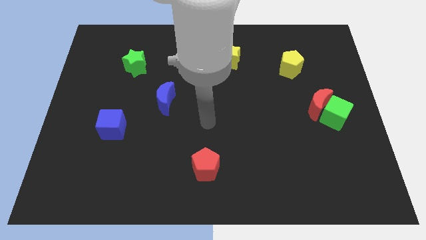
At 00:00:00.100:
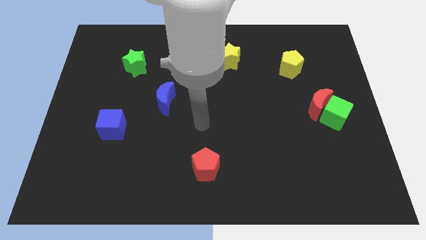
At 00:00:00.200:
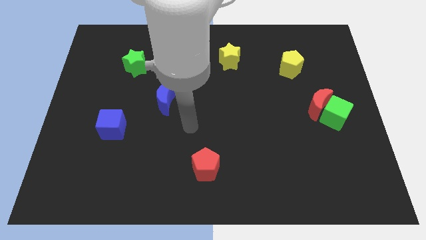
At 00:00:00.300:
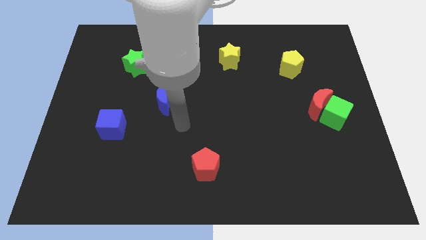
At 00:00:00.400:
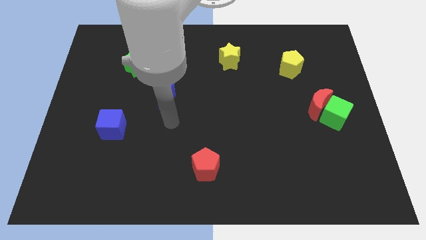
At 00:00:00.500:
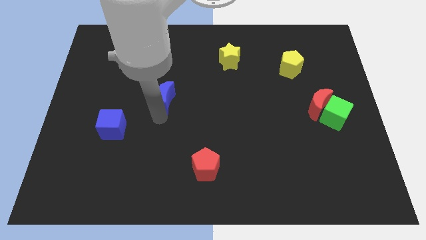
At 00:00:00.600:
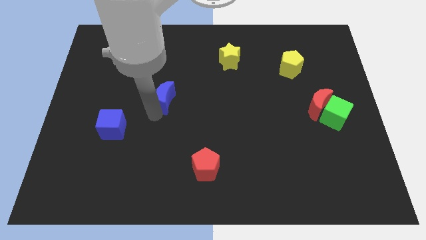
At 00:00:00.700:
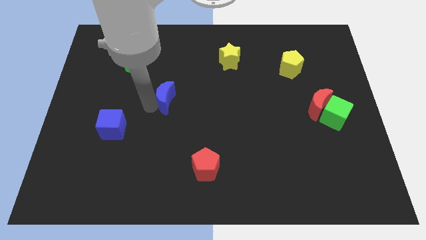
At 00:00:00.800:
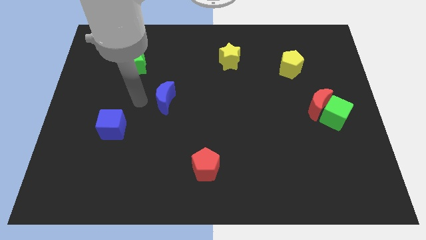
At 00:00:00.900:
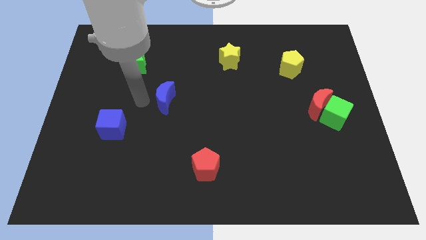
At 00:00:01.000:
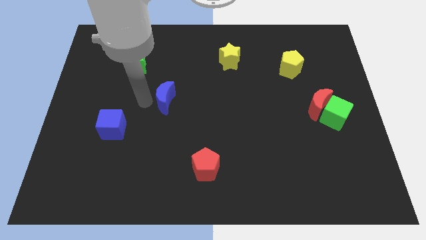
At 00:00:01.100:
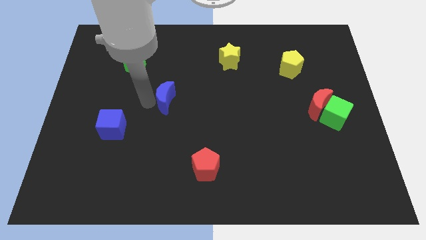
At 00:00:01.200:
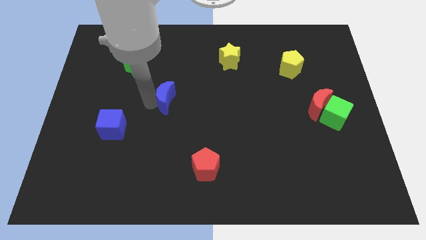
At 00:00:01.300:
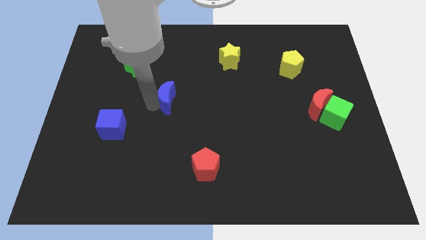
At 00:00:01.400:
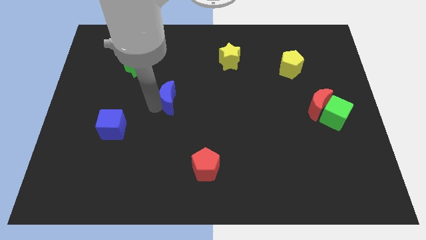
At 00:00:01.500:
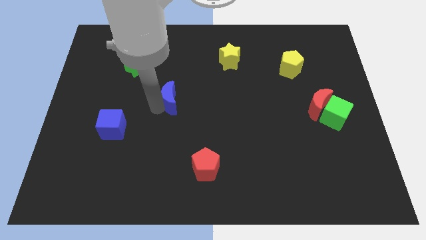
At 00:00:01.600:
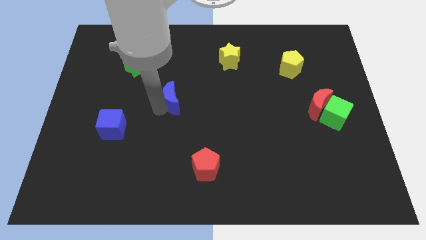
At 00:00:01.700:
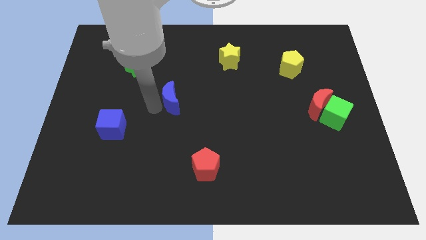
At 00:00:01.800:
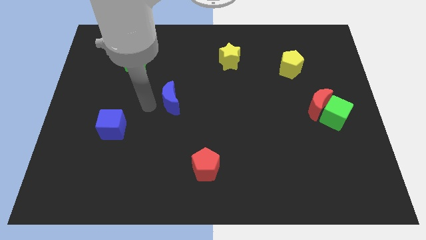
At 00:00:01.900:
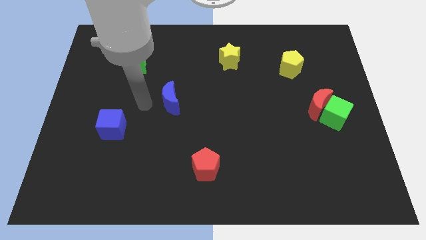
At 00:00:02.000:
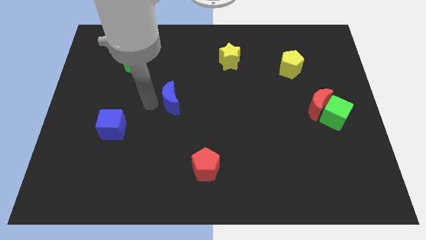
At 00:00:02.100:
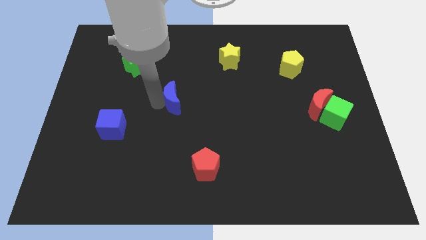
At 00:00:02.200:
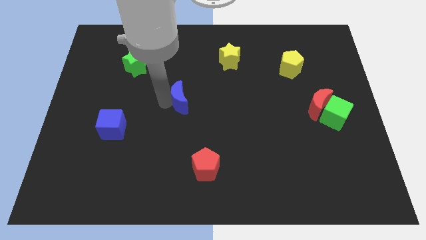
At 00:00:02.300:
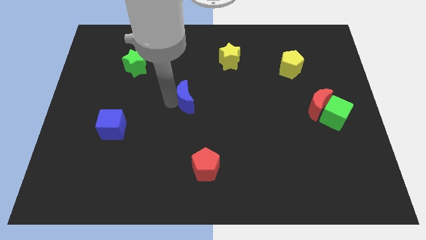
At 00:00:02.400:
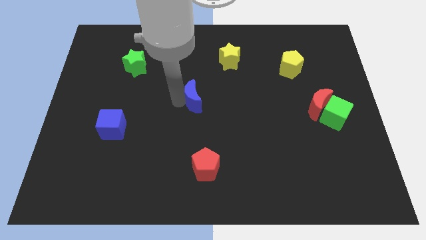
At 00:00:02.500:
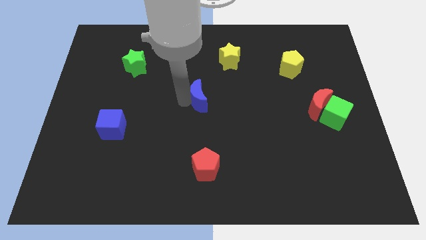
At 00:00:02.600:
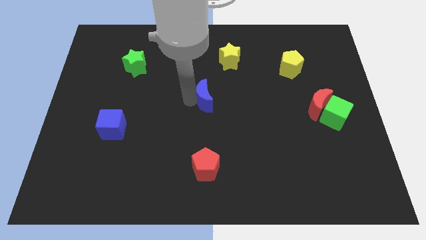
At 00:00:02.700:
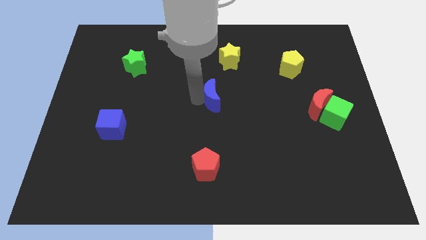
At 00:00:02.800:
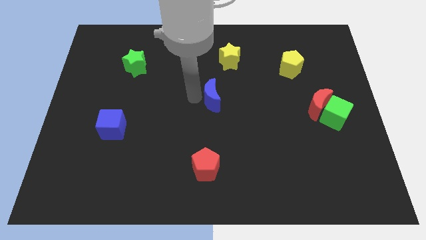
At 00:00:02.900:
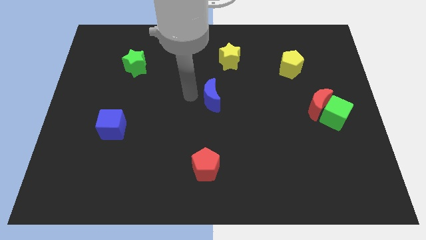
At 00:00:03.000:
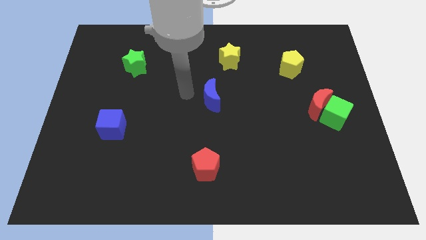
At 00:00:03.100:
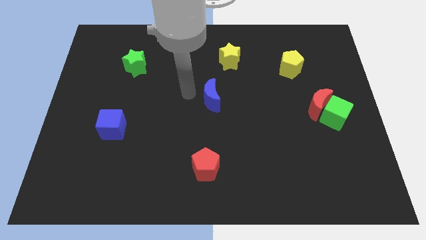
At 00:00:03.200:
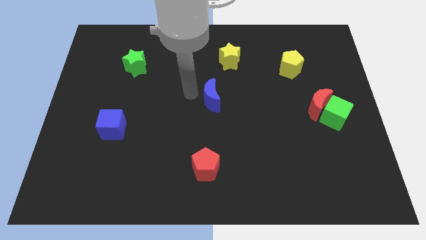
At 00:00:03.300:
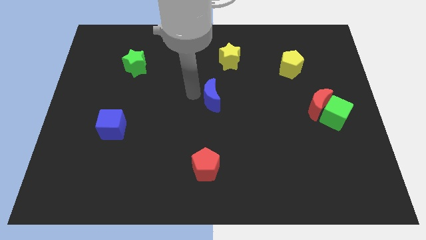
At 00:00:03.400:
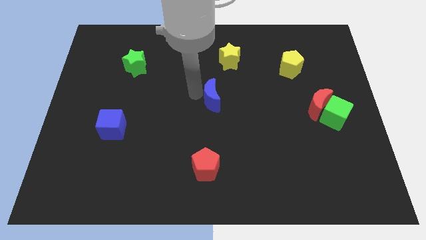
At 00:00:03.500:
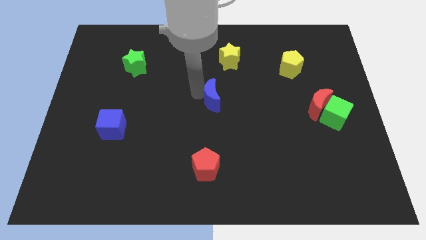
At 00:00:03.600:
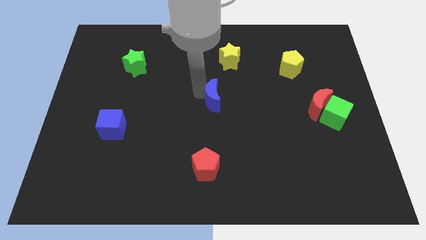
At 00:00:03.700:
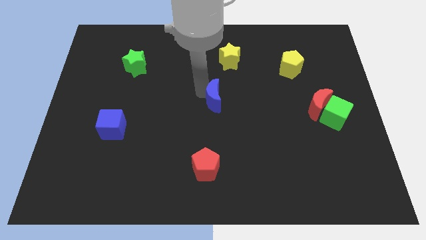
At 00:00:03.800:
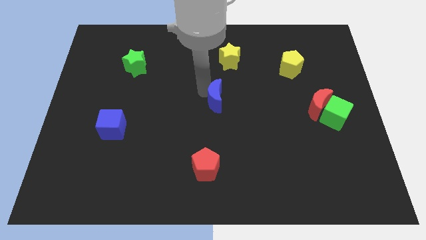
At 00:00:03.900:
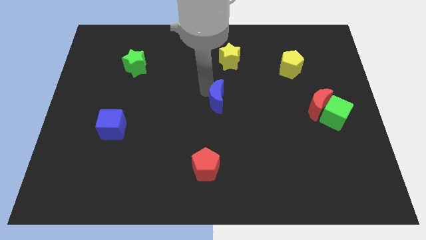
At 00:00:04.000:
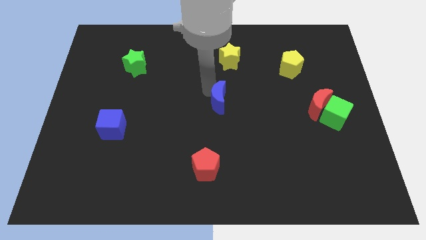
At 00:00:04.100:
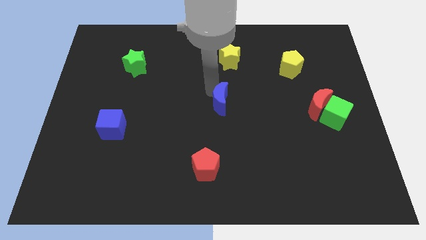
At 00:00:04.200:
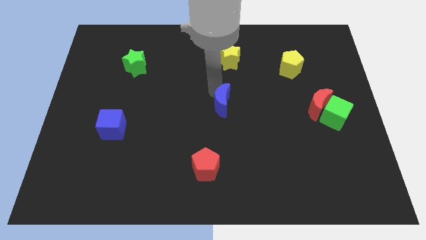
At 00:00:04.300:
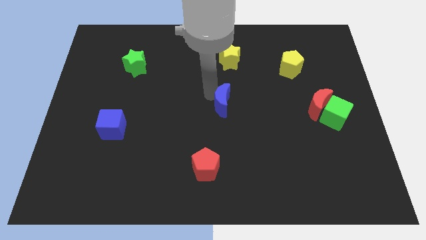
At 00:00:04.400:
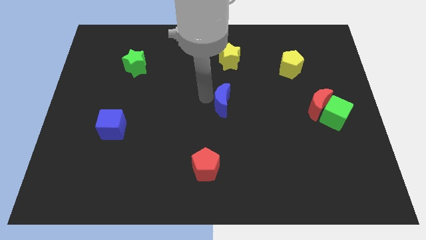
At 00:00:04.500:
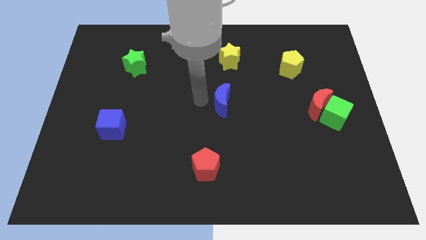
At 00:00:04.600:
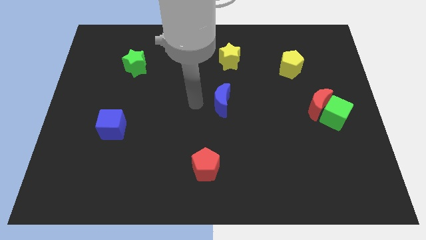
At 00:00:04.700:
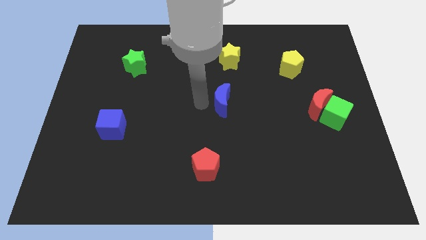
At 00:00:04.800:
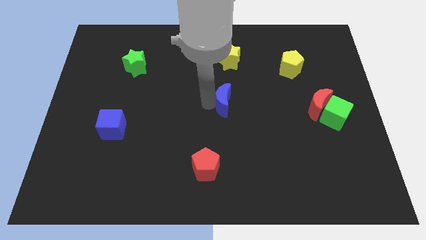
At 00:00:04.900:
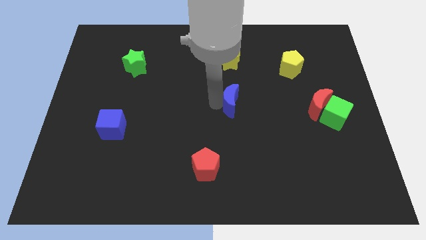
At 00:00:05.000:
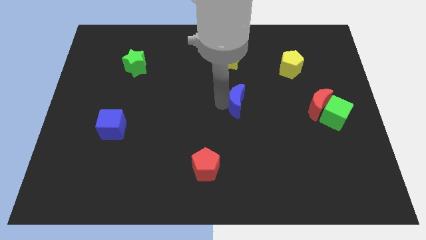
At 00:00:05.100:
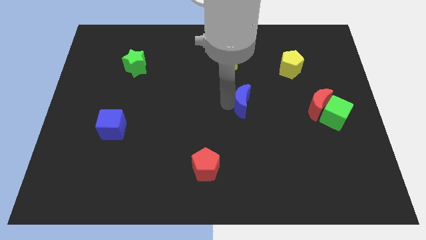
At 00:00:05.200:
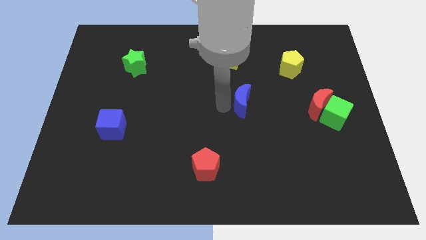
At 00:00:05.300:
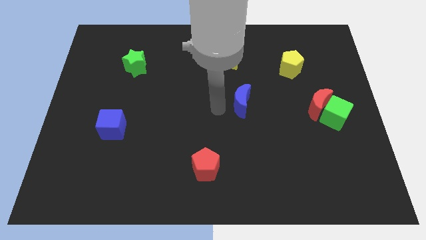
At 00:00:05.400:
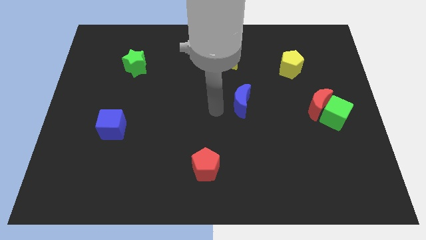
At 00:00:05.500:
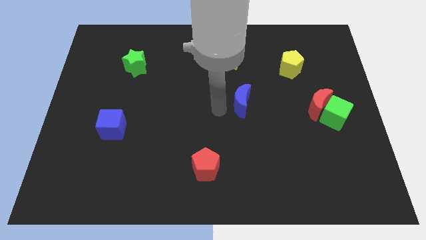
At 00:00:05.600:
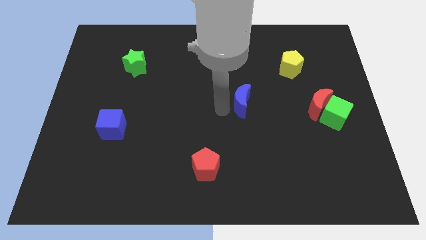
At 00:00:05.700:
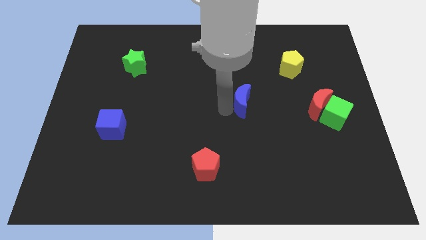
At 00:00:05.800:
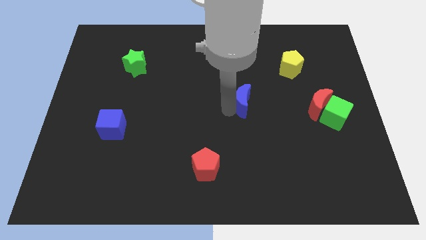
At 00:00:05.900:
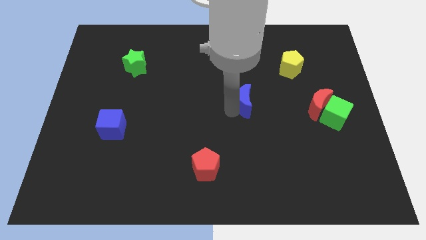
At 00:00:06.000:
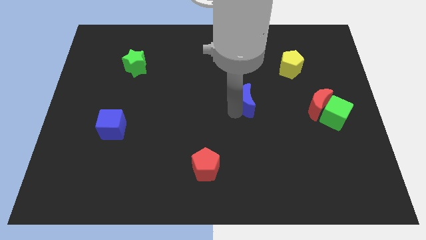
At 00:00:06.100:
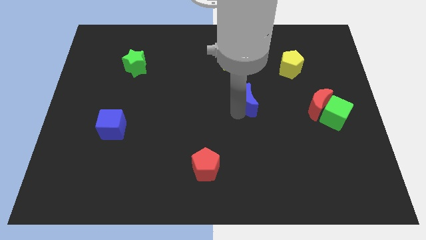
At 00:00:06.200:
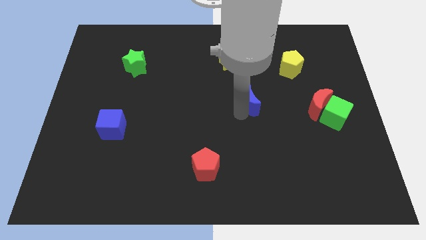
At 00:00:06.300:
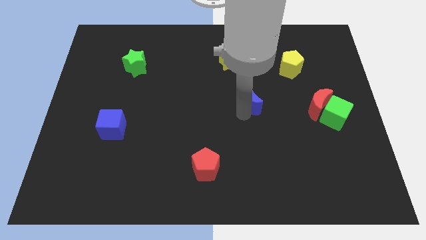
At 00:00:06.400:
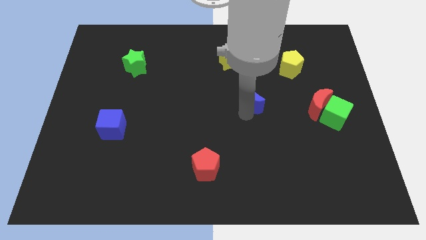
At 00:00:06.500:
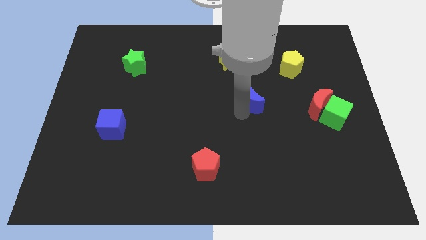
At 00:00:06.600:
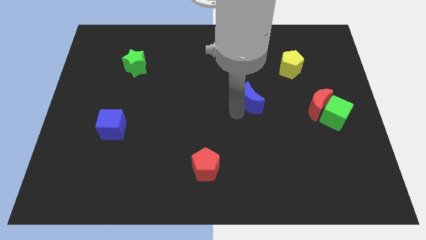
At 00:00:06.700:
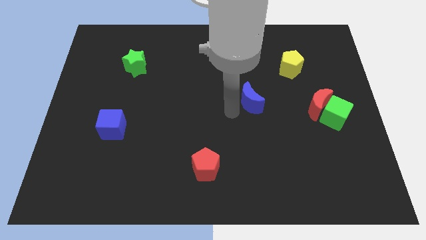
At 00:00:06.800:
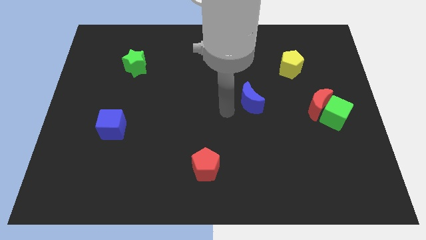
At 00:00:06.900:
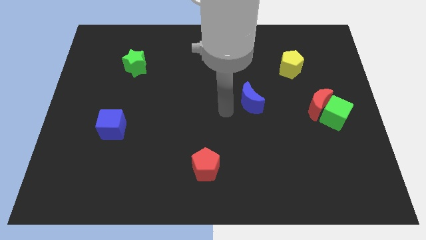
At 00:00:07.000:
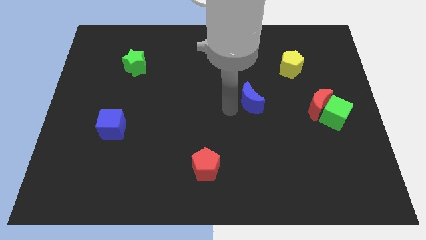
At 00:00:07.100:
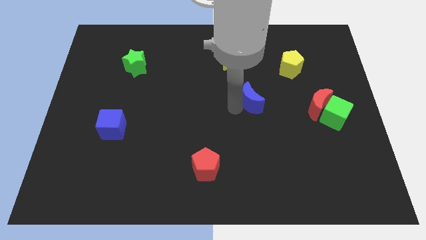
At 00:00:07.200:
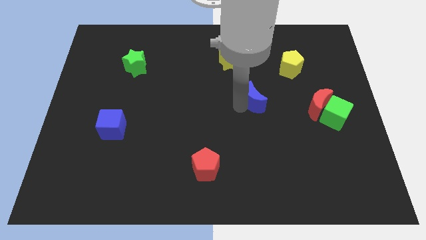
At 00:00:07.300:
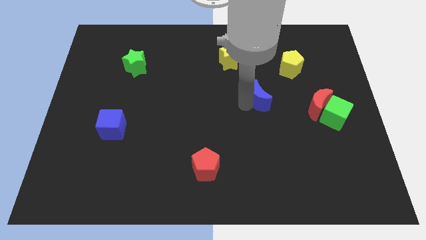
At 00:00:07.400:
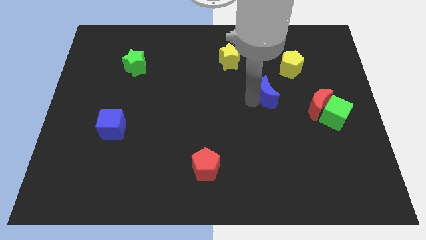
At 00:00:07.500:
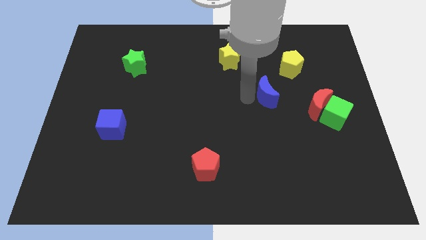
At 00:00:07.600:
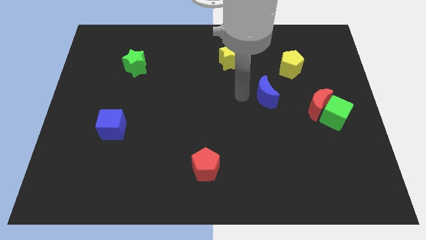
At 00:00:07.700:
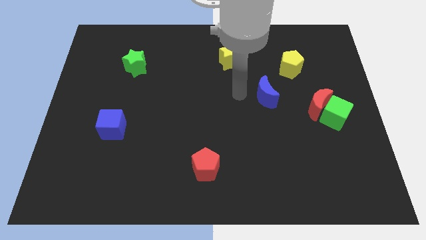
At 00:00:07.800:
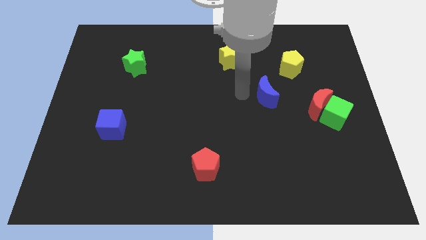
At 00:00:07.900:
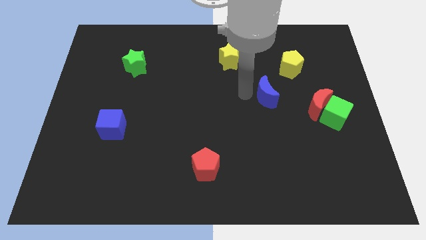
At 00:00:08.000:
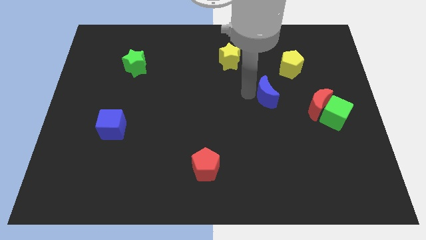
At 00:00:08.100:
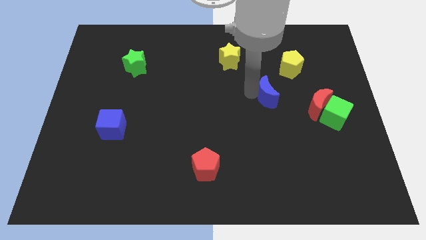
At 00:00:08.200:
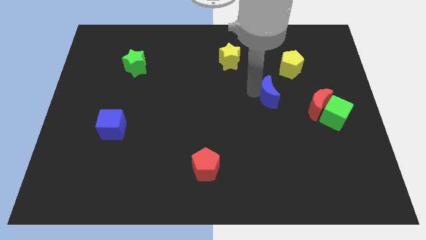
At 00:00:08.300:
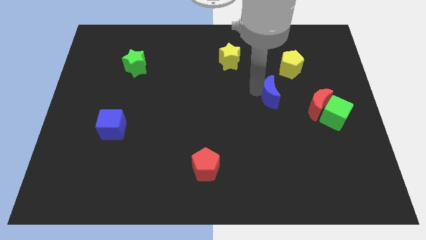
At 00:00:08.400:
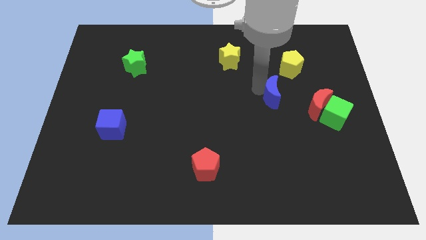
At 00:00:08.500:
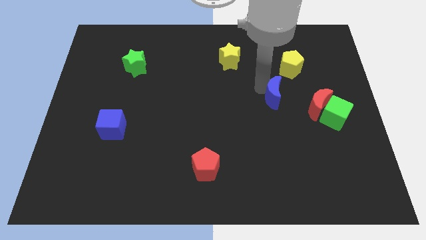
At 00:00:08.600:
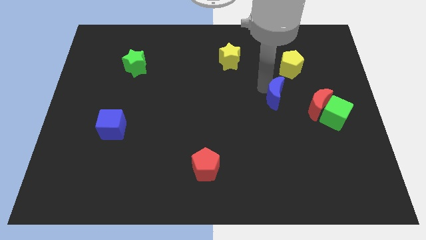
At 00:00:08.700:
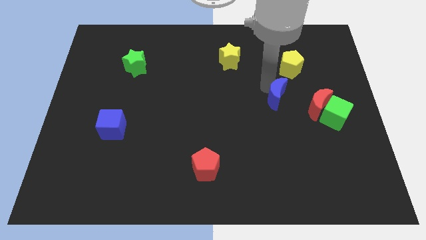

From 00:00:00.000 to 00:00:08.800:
move the blue moon to the bottom of the yellow pentagon
